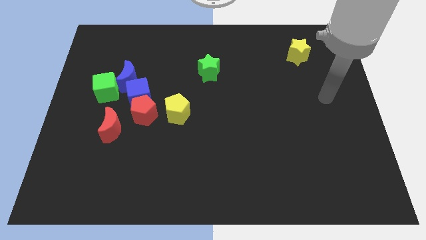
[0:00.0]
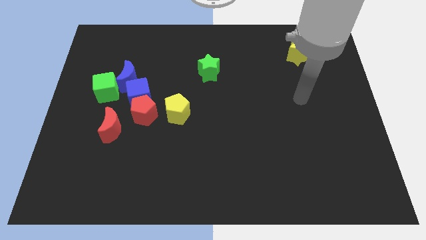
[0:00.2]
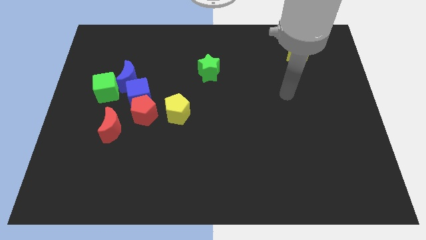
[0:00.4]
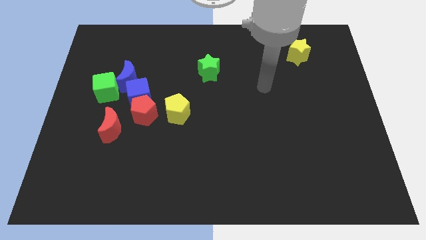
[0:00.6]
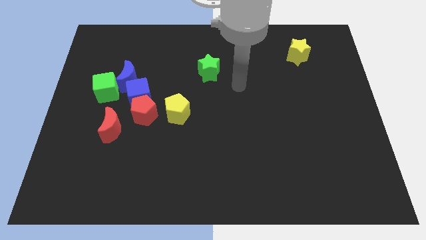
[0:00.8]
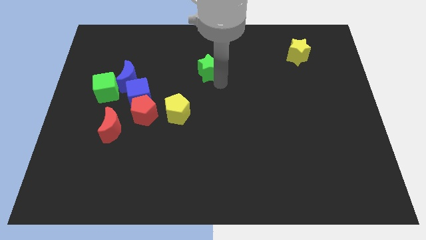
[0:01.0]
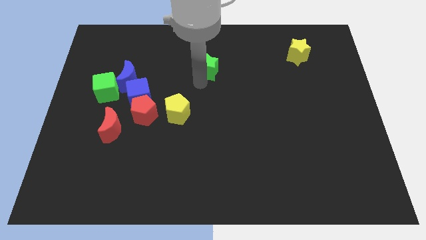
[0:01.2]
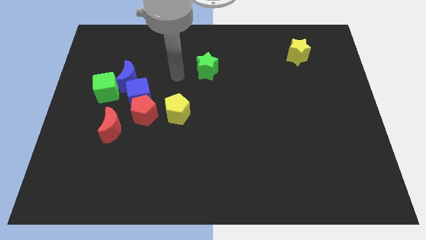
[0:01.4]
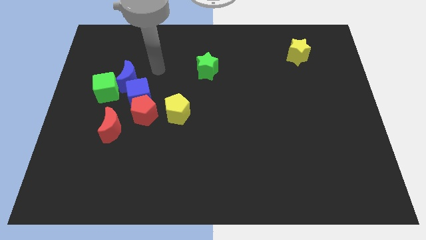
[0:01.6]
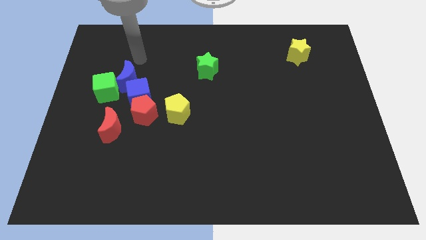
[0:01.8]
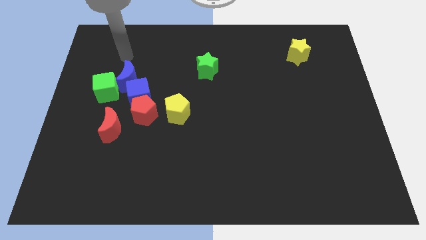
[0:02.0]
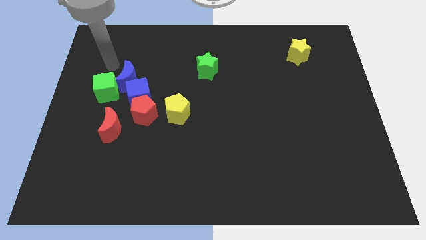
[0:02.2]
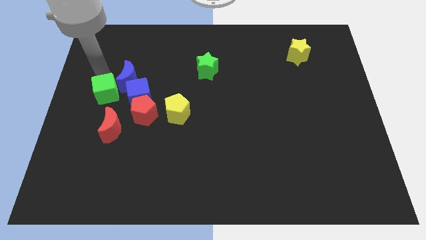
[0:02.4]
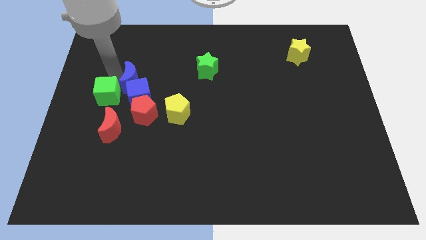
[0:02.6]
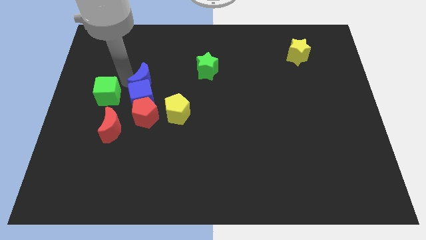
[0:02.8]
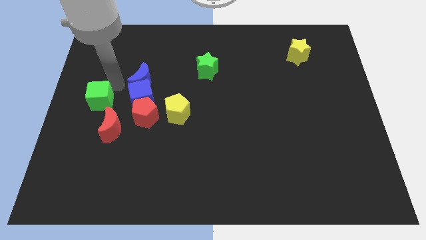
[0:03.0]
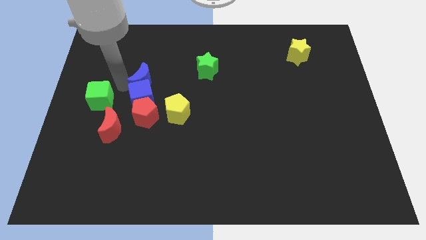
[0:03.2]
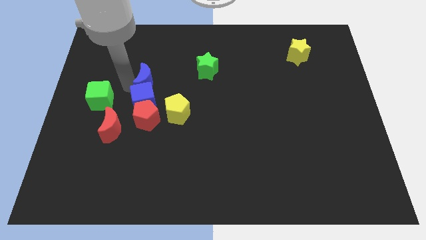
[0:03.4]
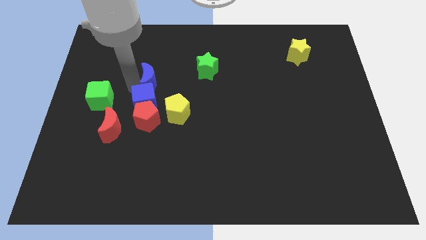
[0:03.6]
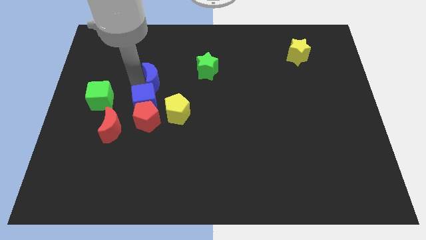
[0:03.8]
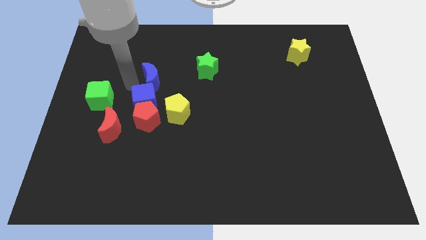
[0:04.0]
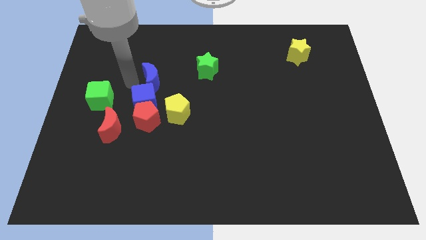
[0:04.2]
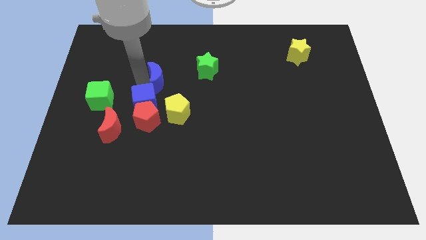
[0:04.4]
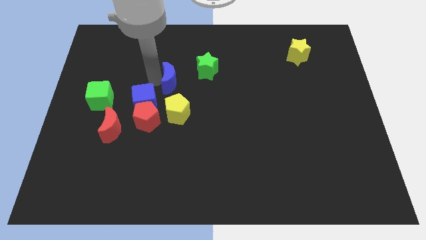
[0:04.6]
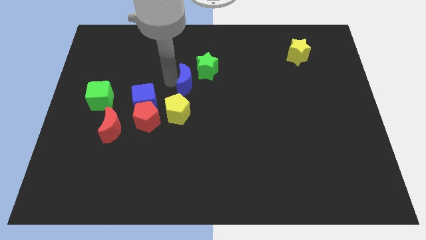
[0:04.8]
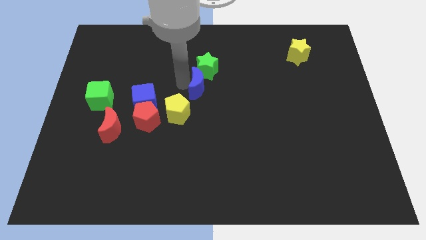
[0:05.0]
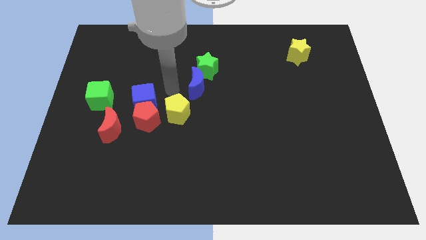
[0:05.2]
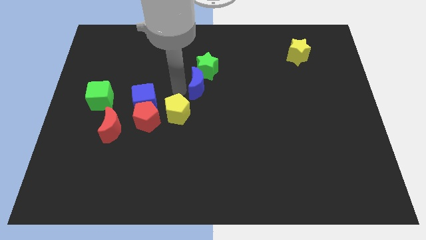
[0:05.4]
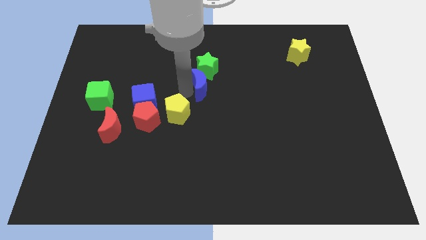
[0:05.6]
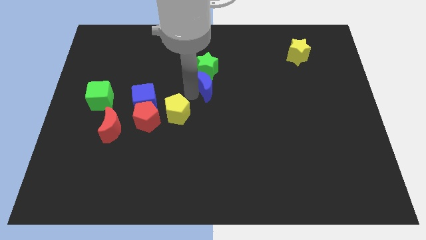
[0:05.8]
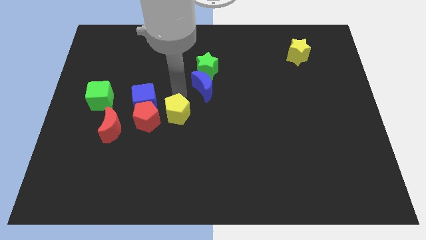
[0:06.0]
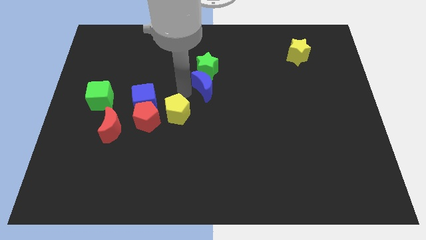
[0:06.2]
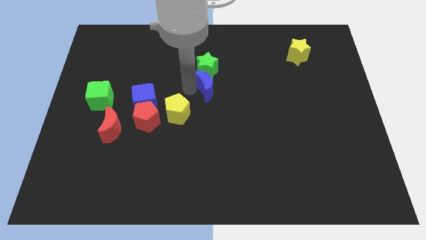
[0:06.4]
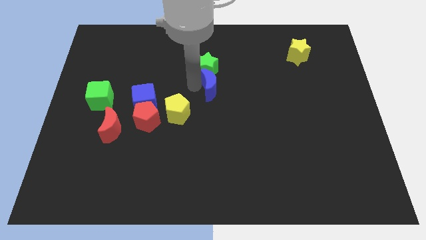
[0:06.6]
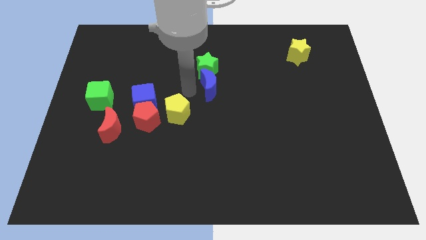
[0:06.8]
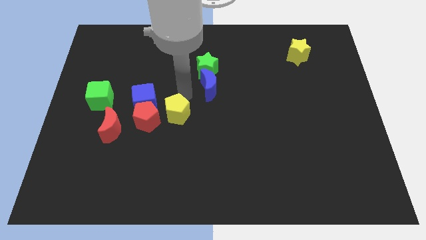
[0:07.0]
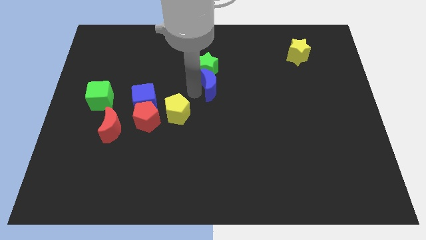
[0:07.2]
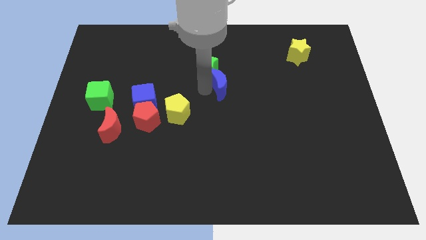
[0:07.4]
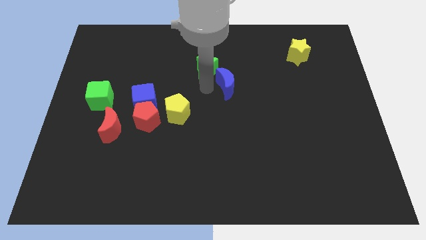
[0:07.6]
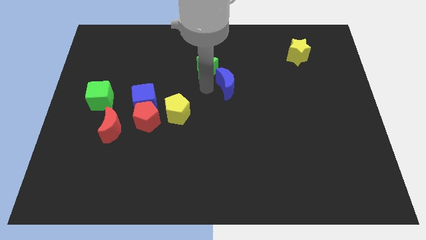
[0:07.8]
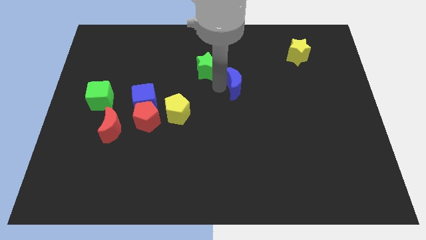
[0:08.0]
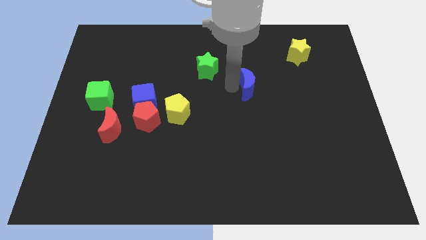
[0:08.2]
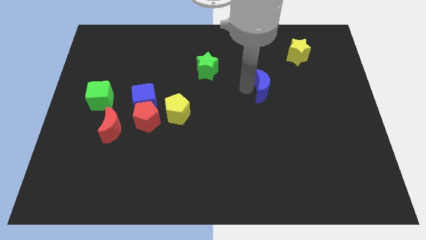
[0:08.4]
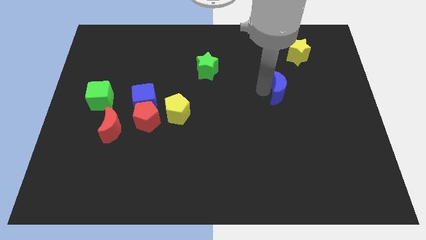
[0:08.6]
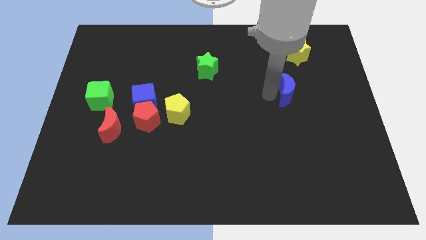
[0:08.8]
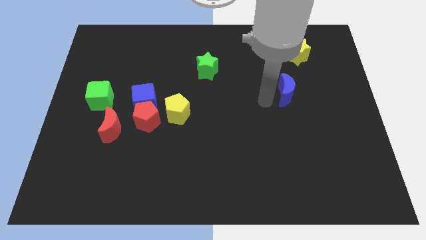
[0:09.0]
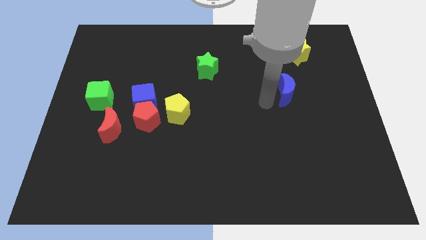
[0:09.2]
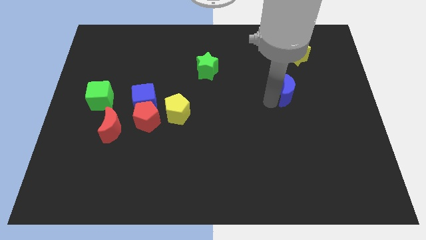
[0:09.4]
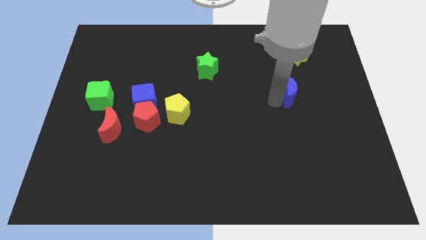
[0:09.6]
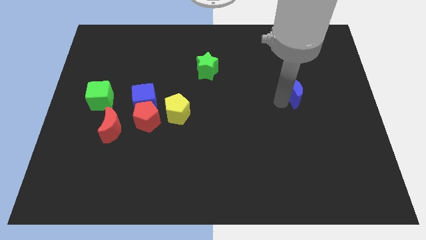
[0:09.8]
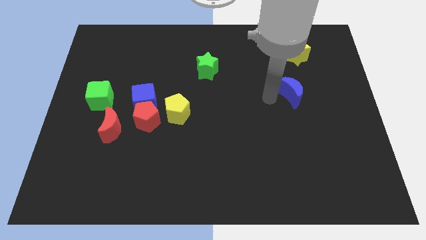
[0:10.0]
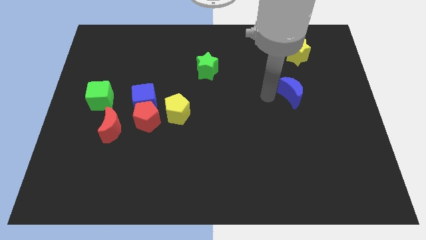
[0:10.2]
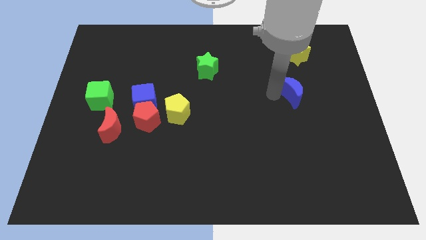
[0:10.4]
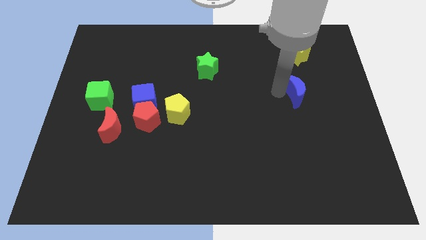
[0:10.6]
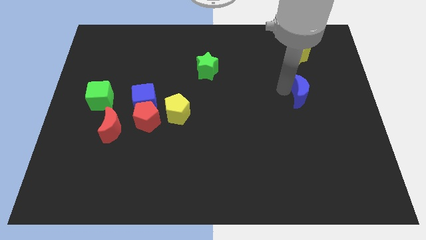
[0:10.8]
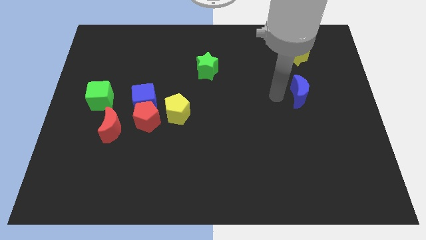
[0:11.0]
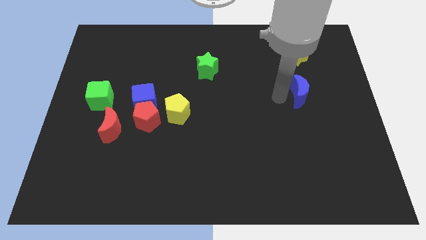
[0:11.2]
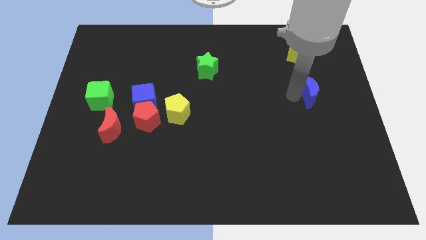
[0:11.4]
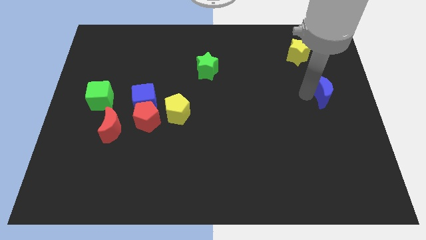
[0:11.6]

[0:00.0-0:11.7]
slide the blue moon to the right side of the board

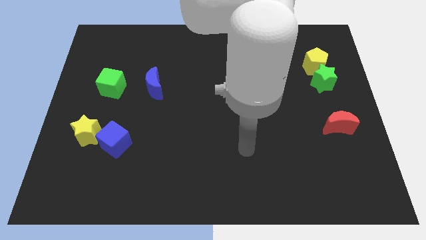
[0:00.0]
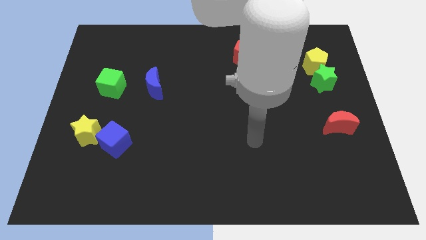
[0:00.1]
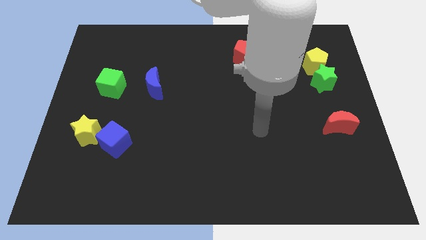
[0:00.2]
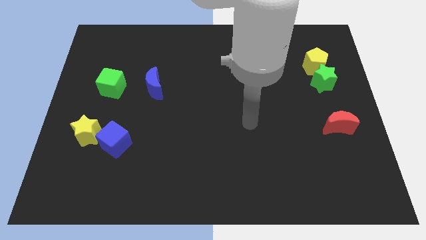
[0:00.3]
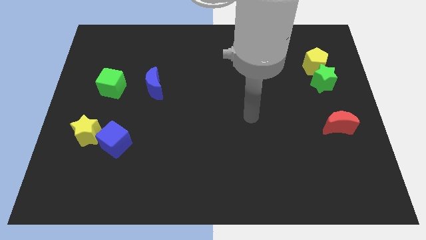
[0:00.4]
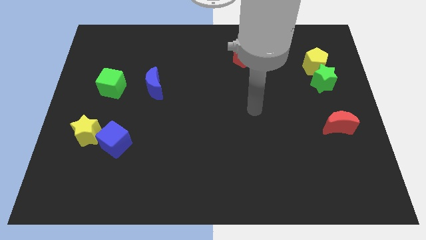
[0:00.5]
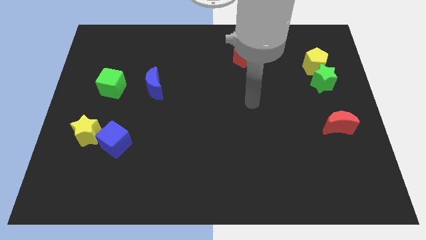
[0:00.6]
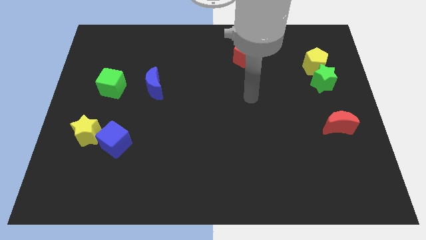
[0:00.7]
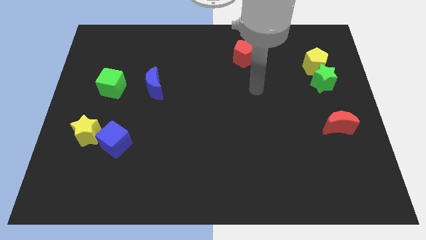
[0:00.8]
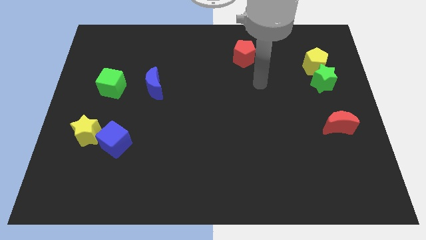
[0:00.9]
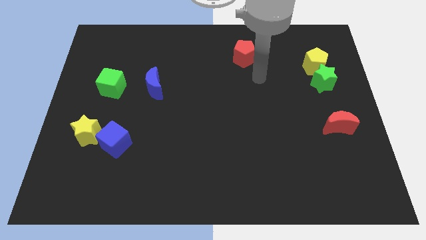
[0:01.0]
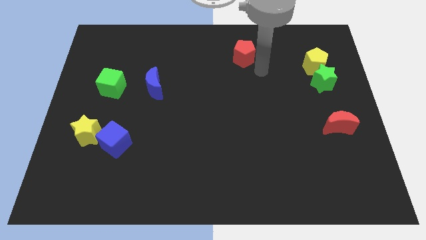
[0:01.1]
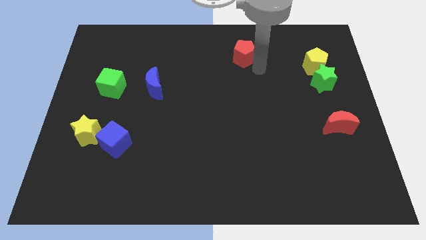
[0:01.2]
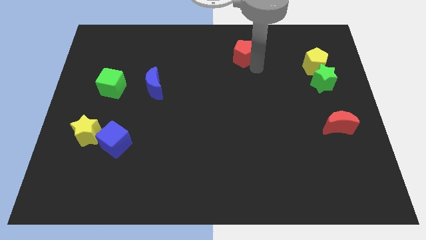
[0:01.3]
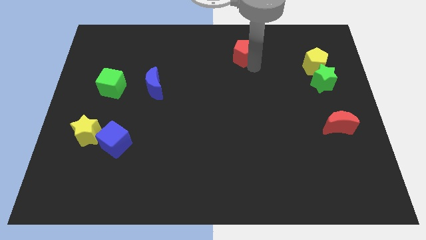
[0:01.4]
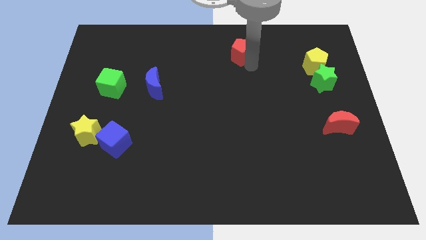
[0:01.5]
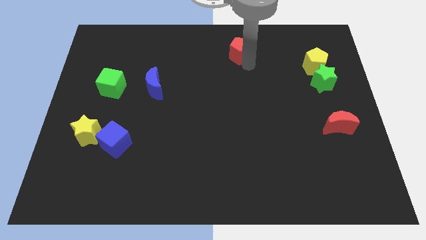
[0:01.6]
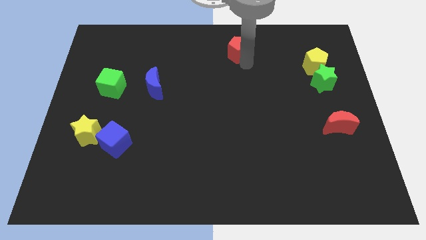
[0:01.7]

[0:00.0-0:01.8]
move the red pentagon to the top
